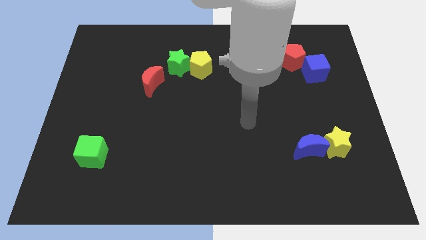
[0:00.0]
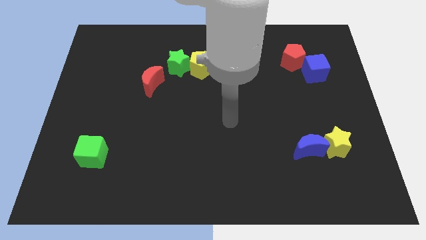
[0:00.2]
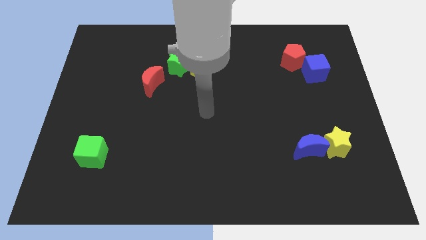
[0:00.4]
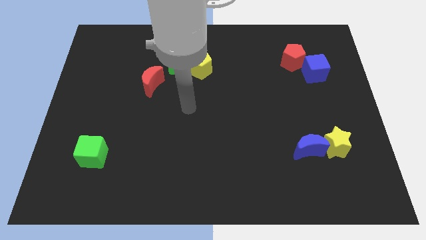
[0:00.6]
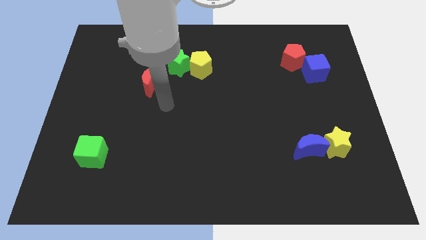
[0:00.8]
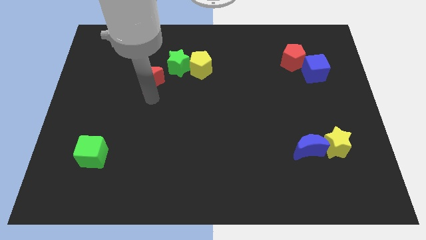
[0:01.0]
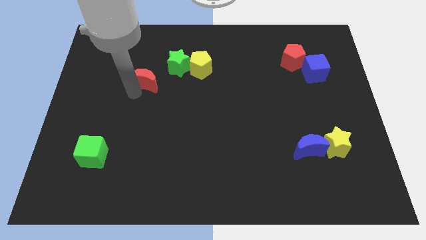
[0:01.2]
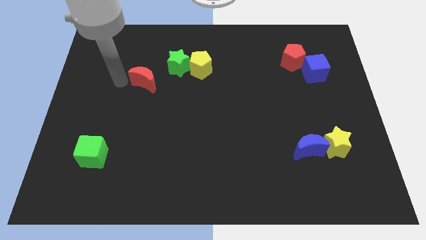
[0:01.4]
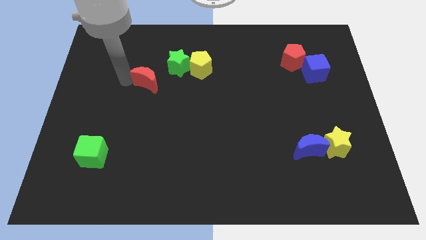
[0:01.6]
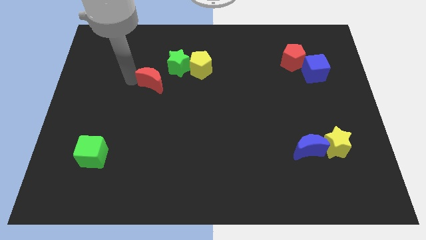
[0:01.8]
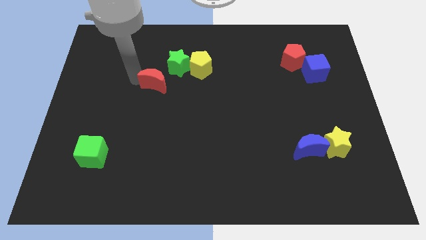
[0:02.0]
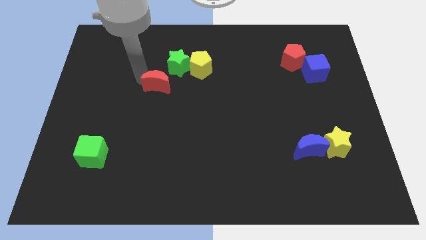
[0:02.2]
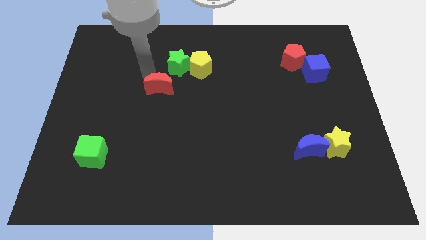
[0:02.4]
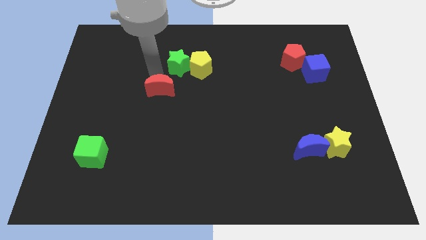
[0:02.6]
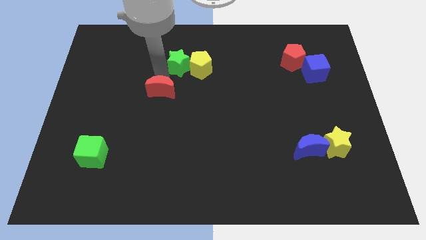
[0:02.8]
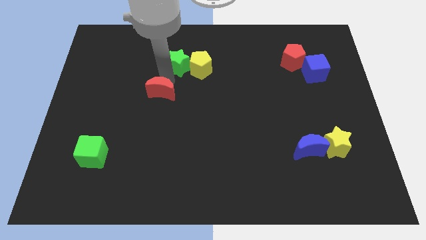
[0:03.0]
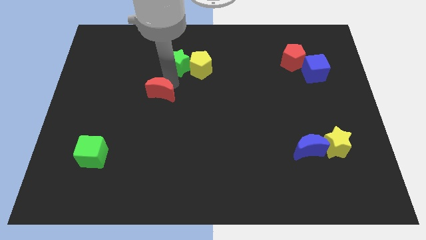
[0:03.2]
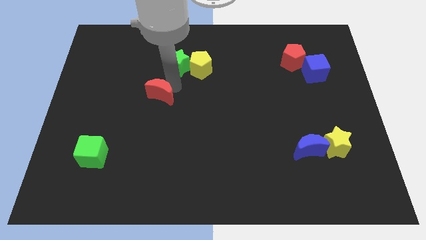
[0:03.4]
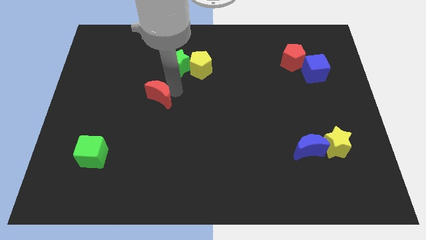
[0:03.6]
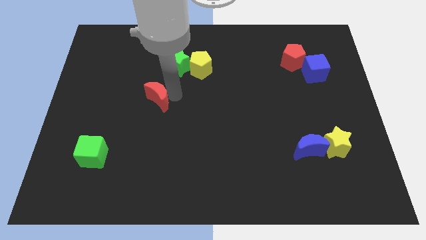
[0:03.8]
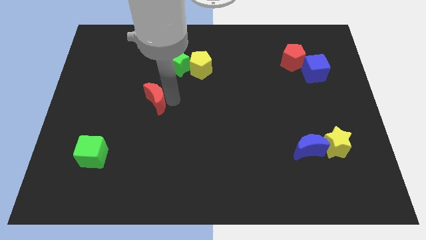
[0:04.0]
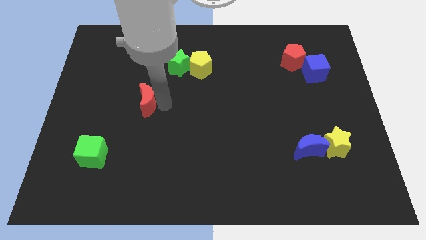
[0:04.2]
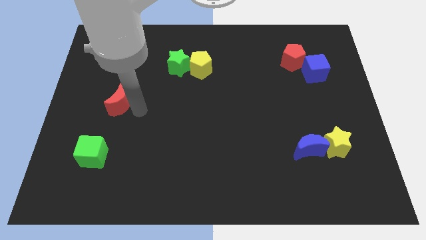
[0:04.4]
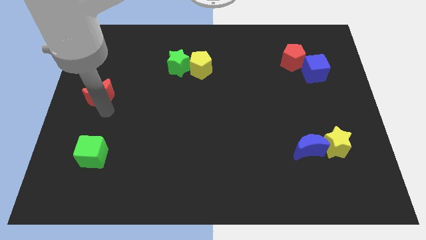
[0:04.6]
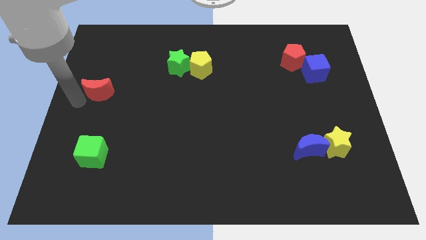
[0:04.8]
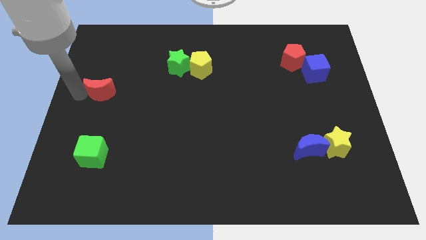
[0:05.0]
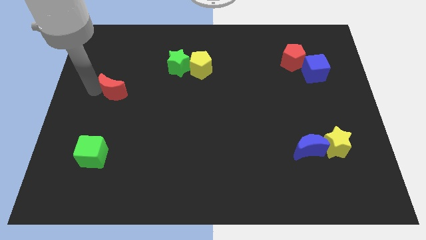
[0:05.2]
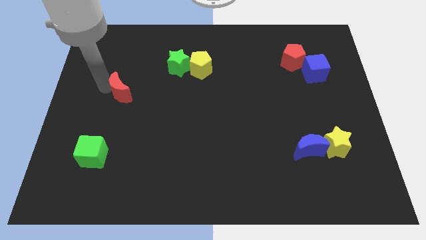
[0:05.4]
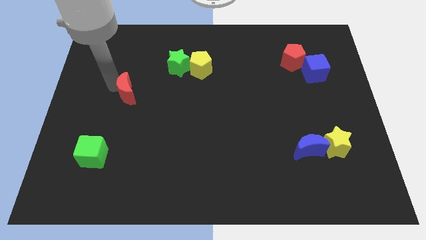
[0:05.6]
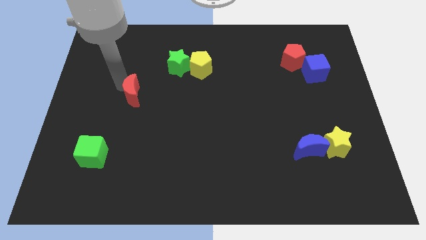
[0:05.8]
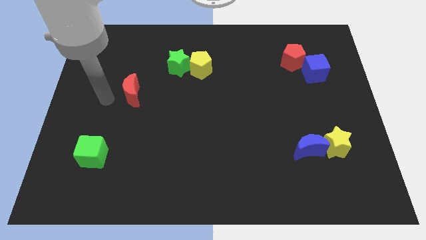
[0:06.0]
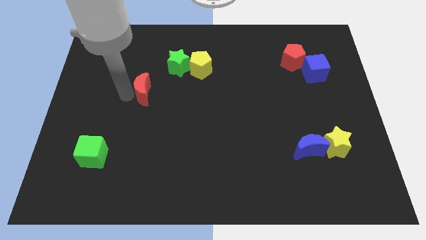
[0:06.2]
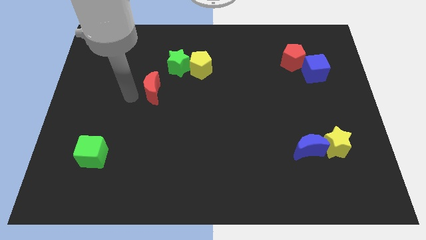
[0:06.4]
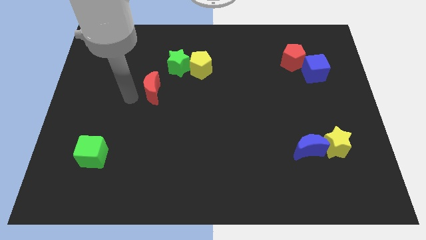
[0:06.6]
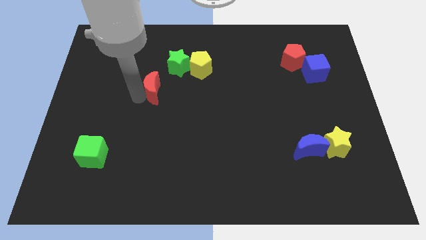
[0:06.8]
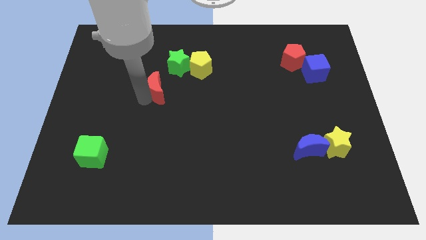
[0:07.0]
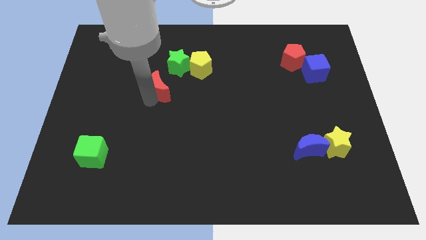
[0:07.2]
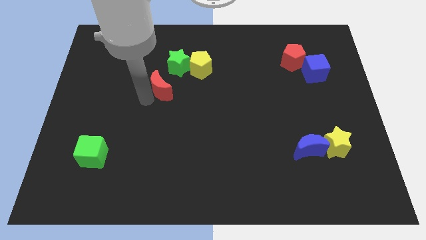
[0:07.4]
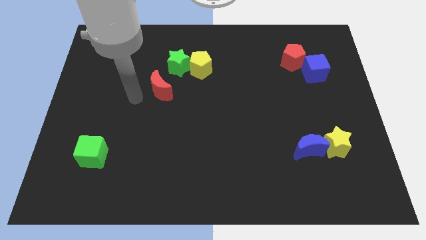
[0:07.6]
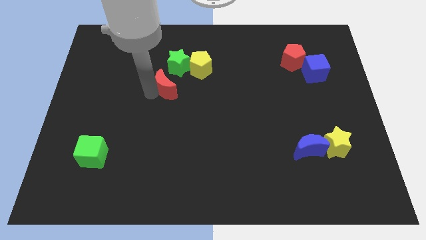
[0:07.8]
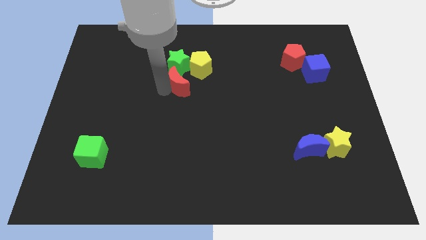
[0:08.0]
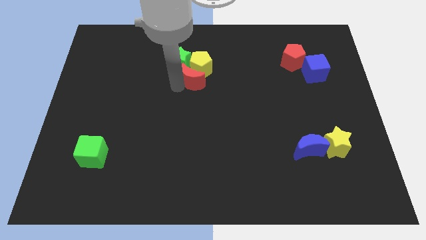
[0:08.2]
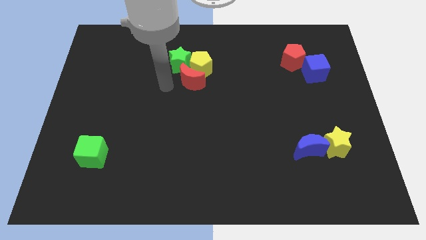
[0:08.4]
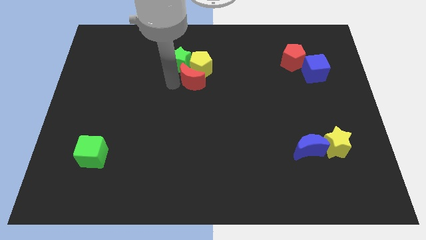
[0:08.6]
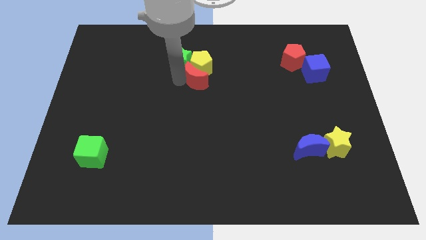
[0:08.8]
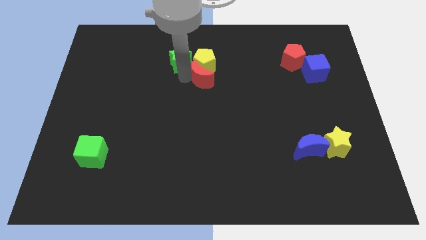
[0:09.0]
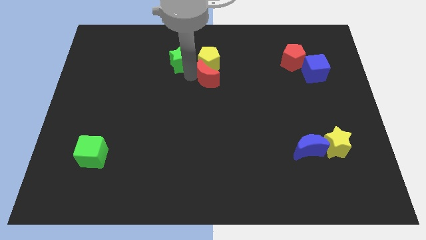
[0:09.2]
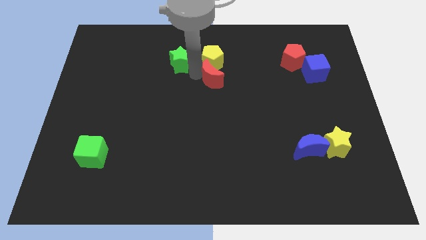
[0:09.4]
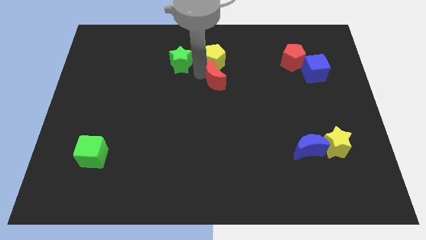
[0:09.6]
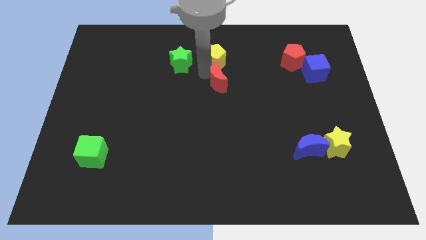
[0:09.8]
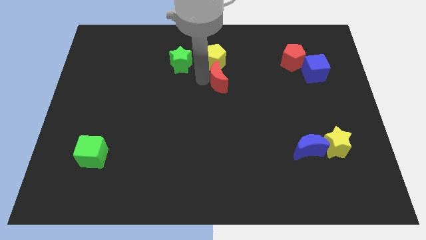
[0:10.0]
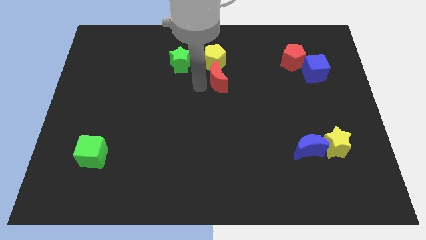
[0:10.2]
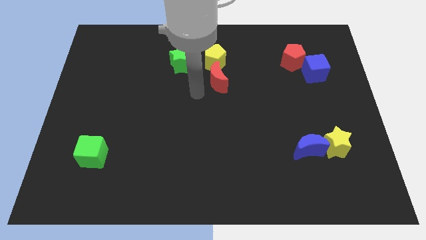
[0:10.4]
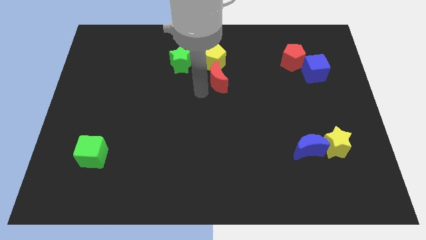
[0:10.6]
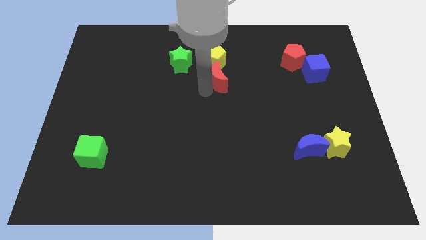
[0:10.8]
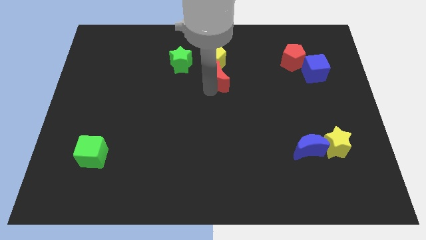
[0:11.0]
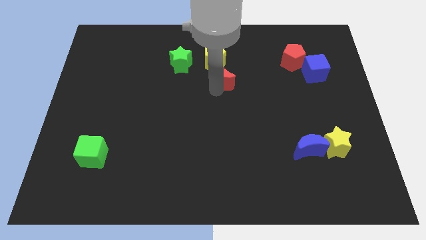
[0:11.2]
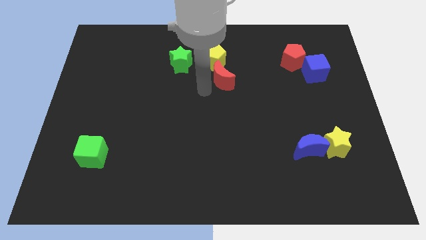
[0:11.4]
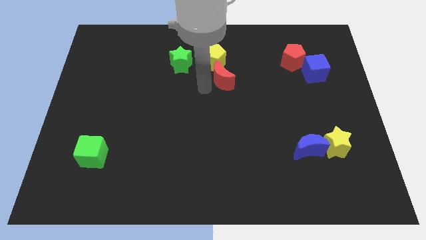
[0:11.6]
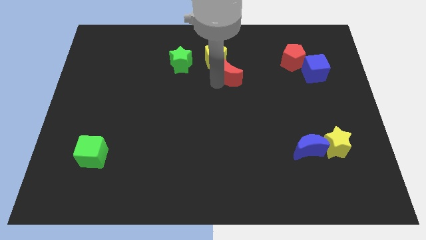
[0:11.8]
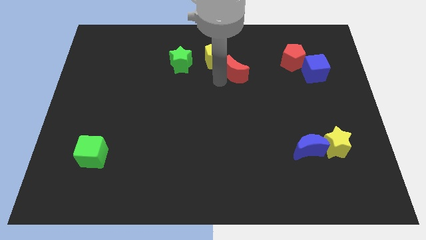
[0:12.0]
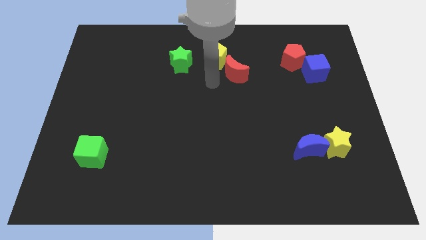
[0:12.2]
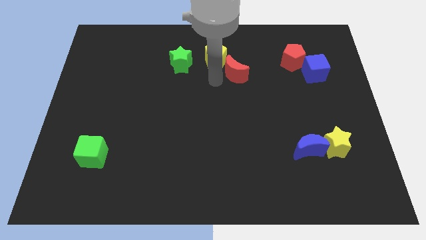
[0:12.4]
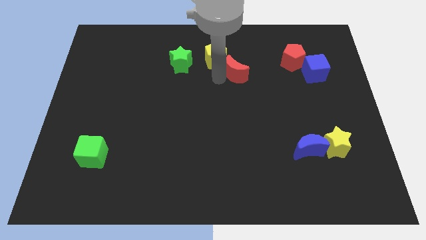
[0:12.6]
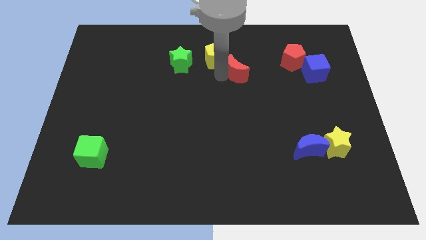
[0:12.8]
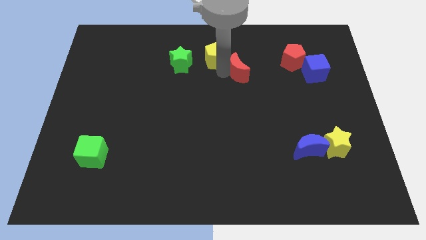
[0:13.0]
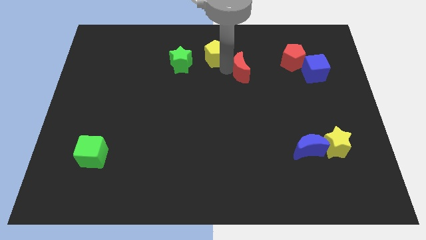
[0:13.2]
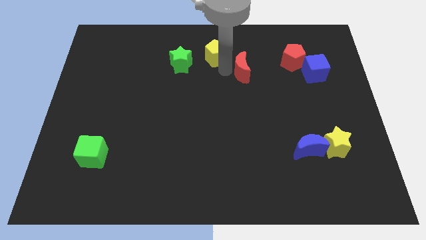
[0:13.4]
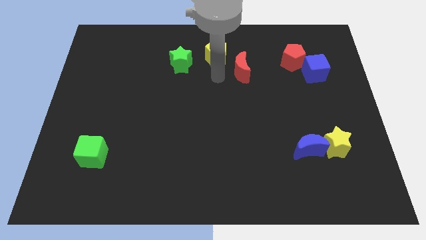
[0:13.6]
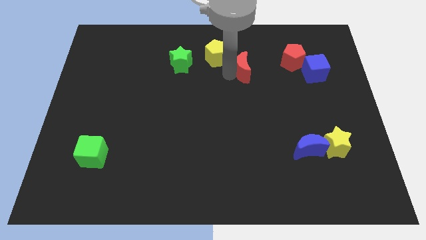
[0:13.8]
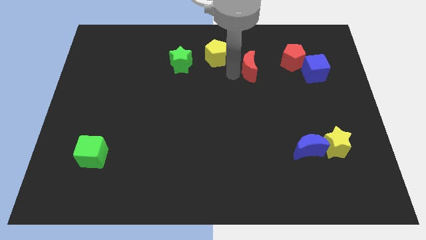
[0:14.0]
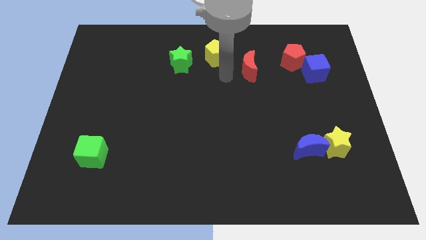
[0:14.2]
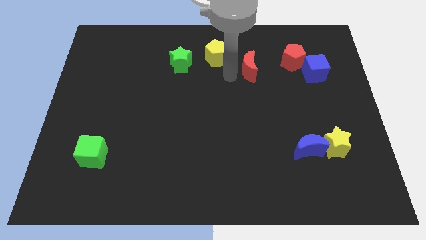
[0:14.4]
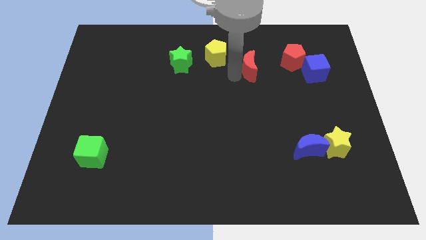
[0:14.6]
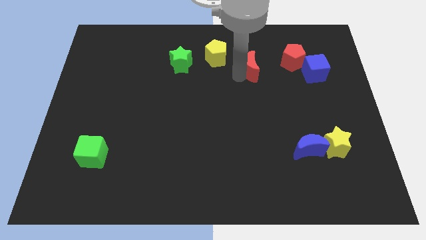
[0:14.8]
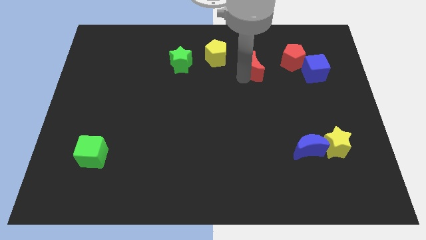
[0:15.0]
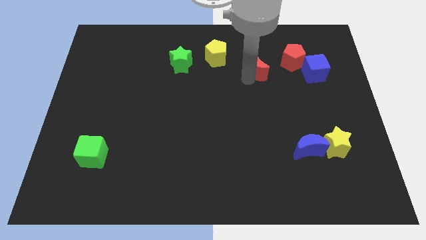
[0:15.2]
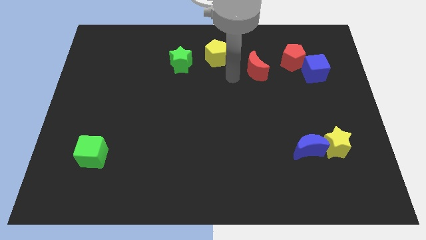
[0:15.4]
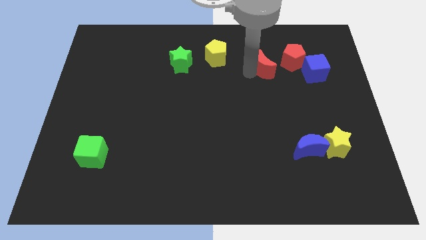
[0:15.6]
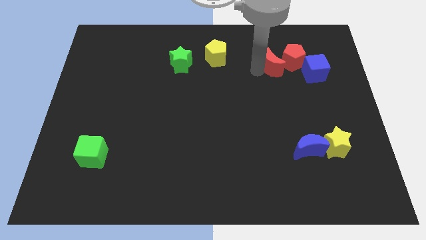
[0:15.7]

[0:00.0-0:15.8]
put the red moon towards the red pentagon
